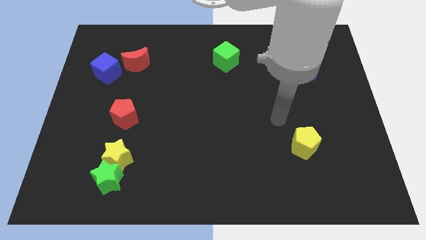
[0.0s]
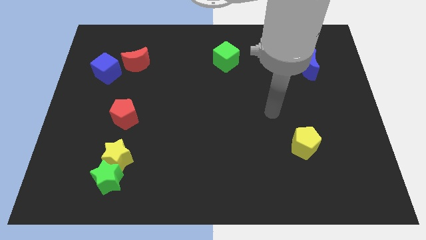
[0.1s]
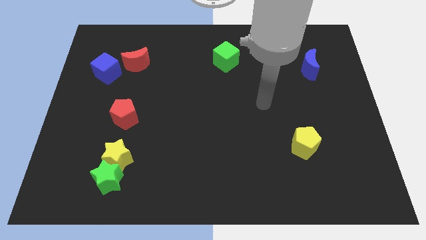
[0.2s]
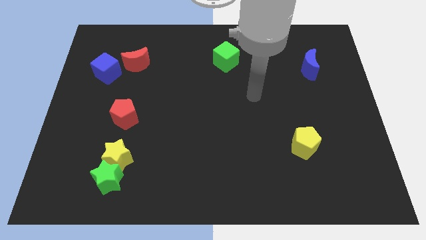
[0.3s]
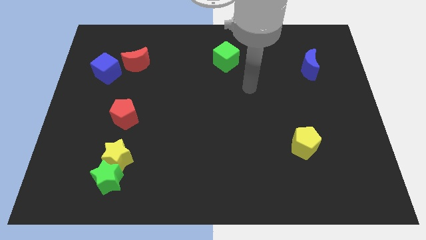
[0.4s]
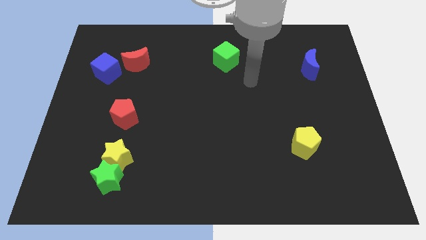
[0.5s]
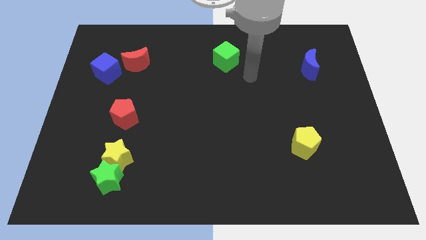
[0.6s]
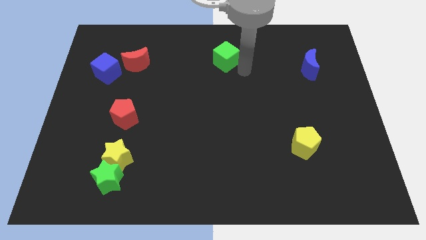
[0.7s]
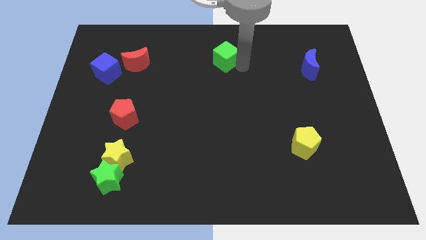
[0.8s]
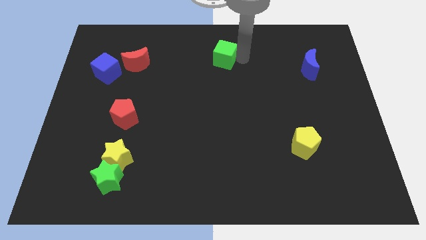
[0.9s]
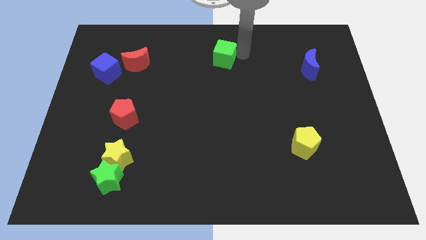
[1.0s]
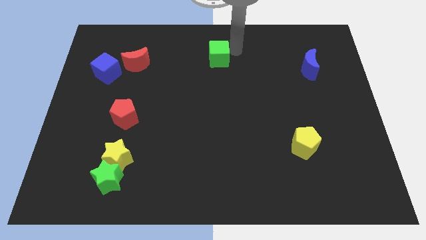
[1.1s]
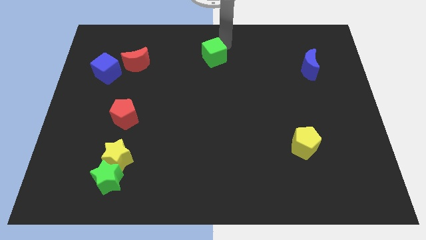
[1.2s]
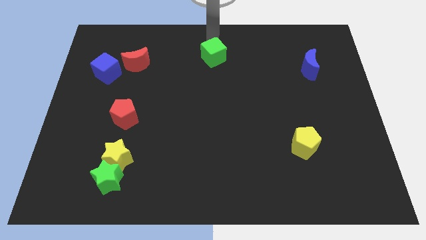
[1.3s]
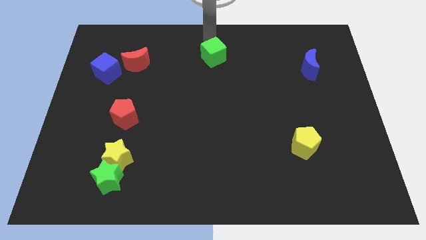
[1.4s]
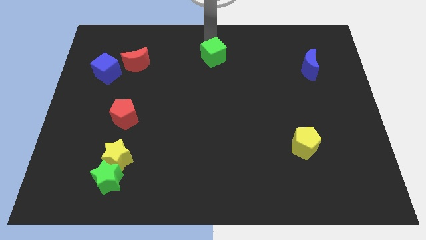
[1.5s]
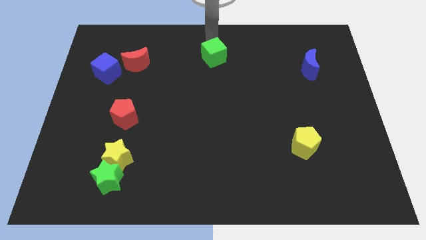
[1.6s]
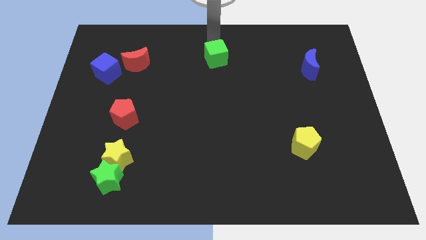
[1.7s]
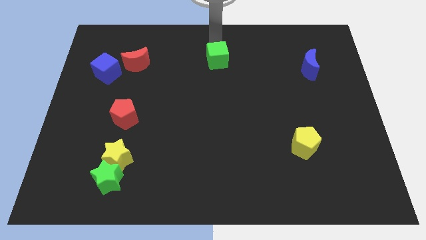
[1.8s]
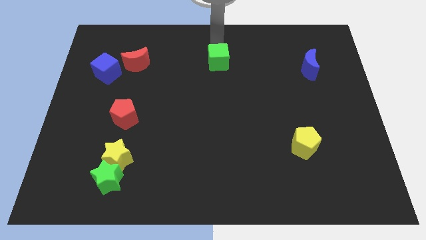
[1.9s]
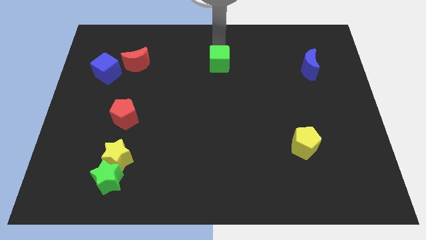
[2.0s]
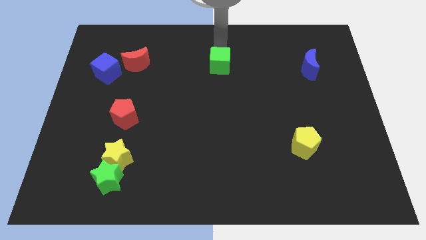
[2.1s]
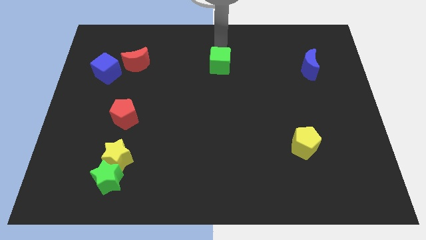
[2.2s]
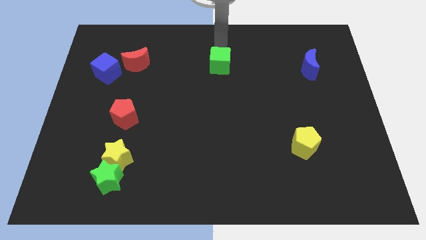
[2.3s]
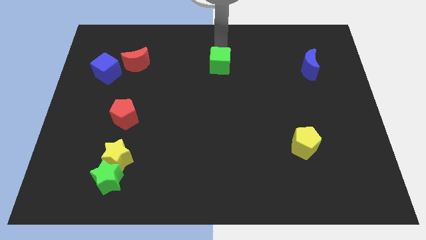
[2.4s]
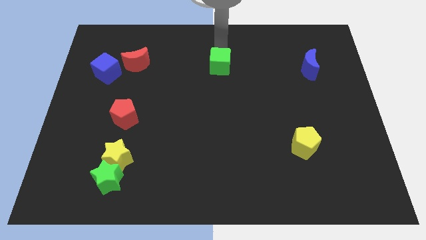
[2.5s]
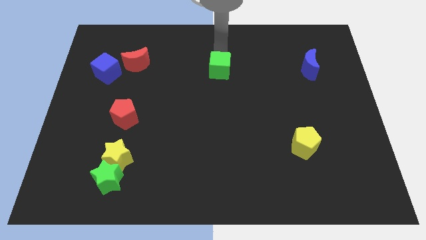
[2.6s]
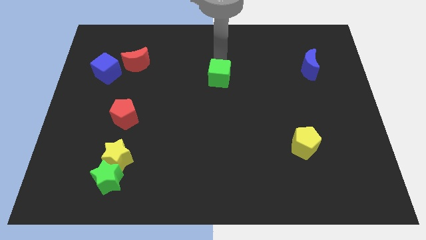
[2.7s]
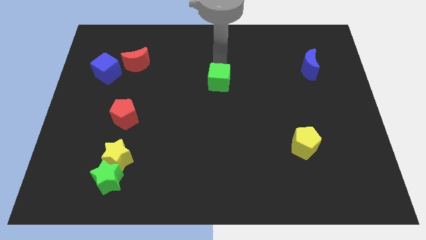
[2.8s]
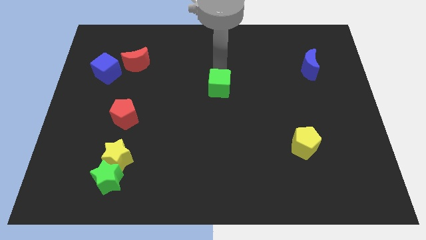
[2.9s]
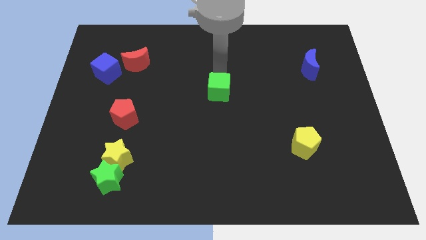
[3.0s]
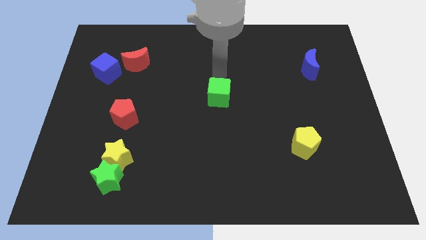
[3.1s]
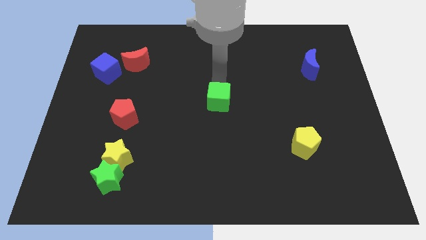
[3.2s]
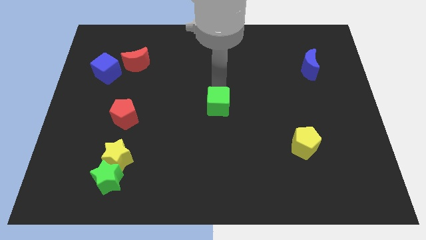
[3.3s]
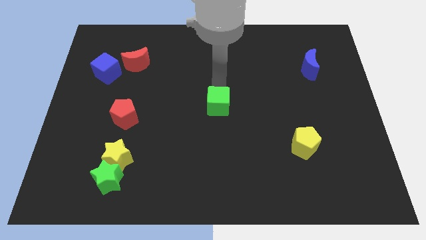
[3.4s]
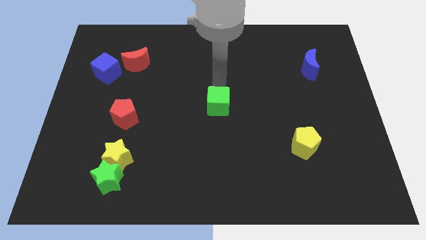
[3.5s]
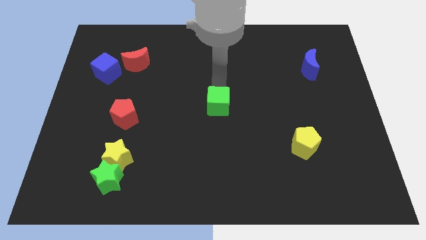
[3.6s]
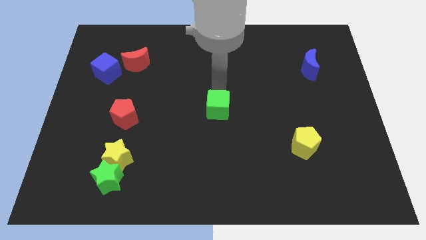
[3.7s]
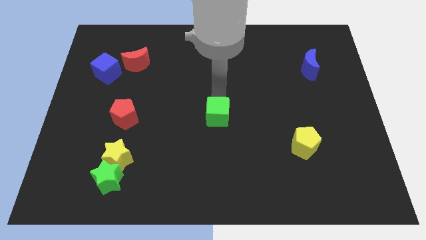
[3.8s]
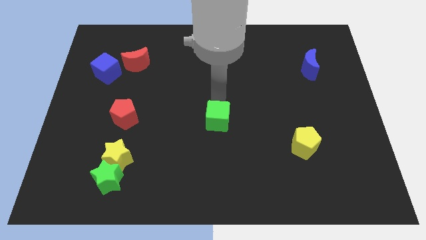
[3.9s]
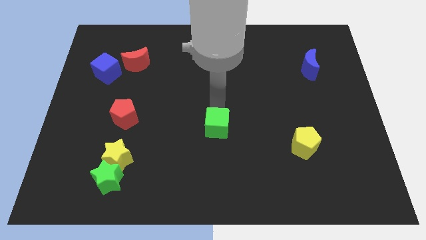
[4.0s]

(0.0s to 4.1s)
move the green cube down

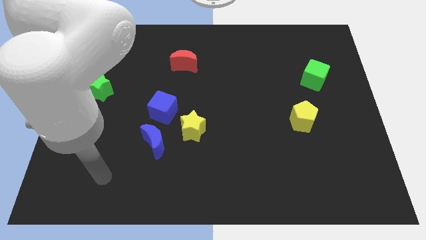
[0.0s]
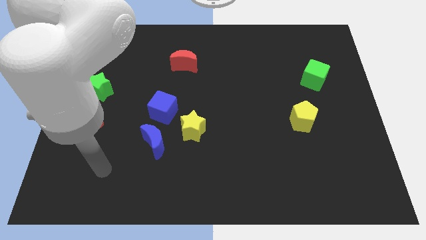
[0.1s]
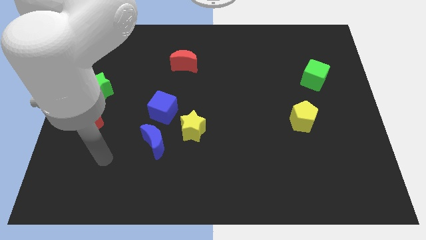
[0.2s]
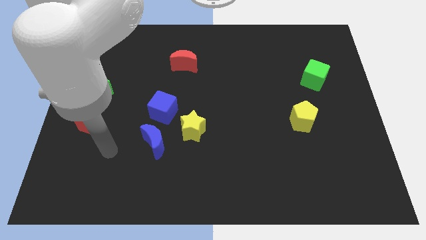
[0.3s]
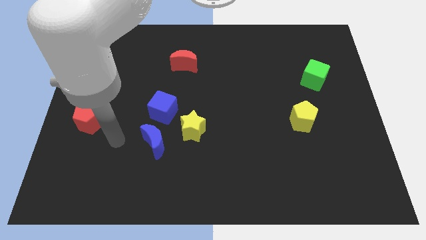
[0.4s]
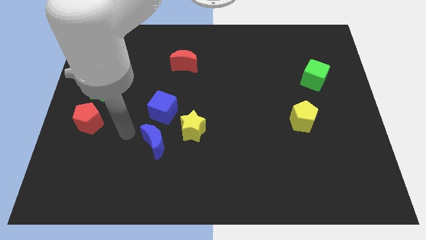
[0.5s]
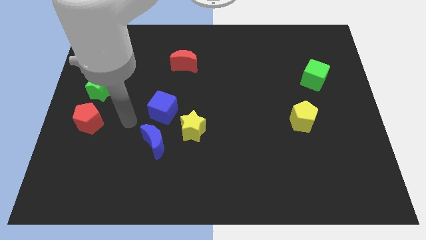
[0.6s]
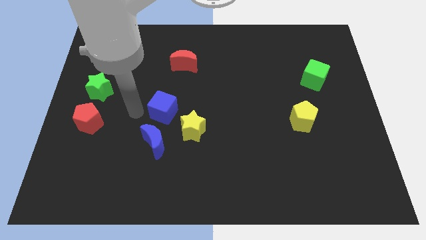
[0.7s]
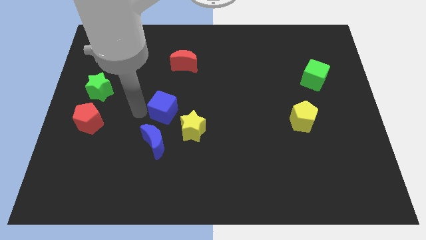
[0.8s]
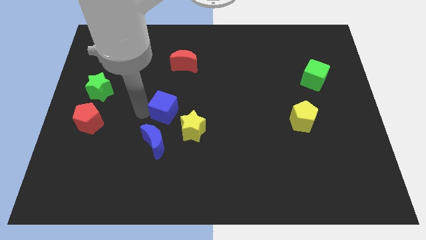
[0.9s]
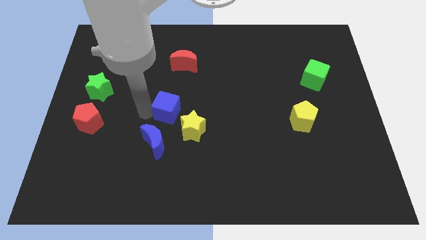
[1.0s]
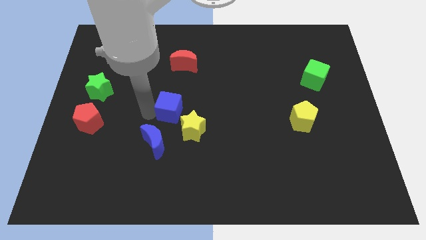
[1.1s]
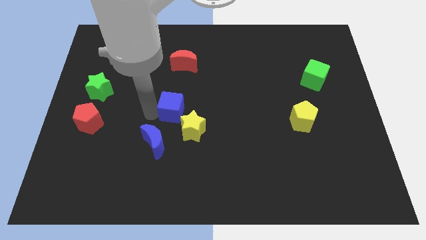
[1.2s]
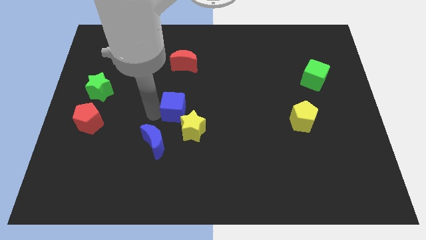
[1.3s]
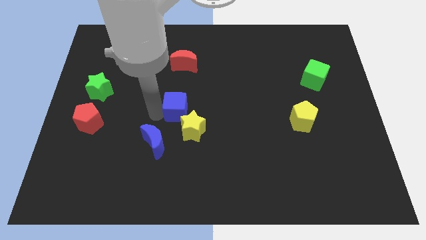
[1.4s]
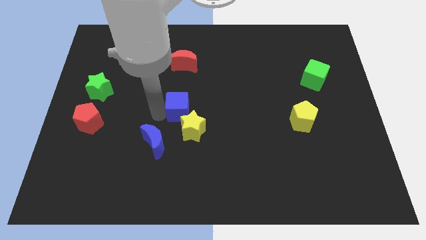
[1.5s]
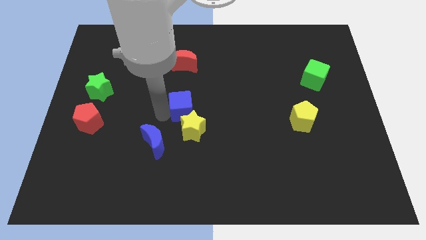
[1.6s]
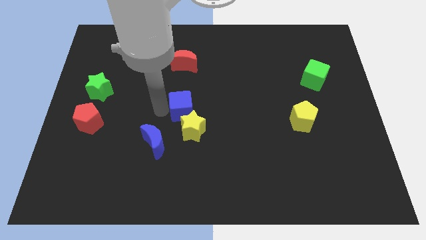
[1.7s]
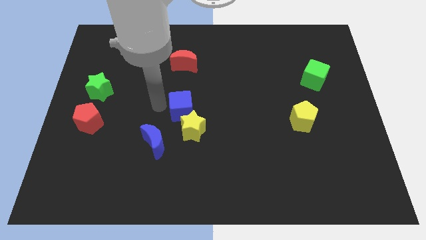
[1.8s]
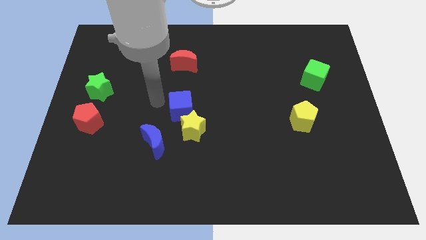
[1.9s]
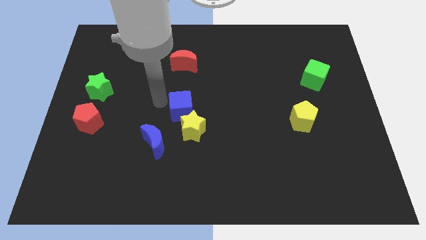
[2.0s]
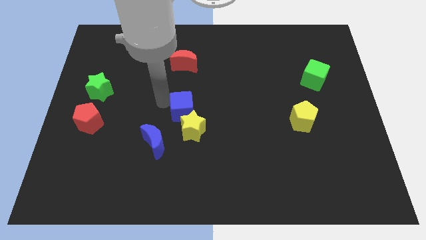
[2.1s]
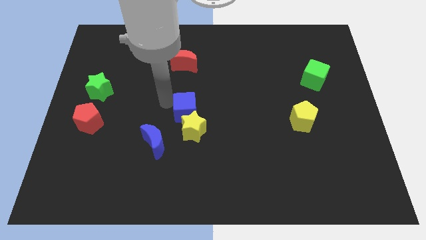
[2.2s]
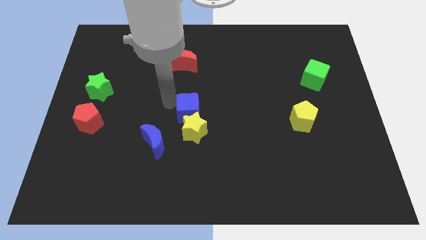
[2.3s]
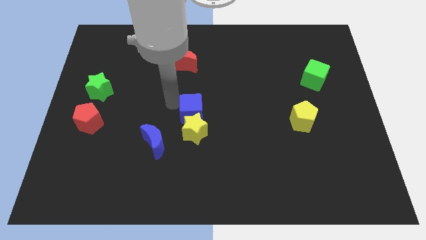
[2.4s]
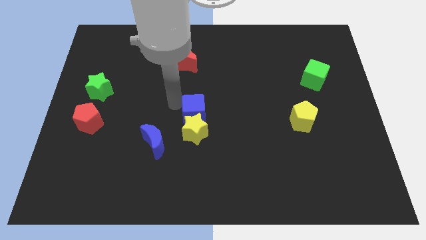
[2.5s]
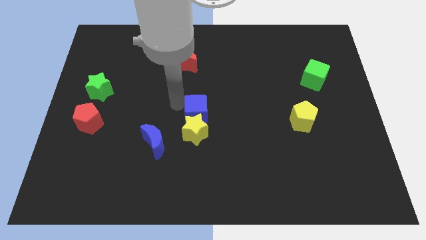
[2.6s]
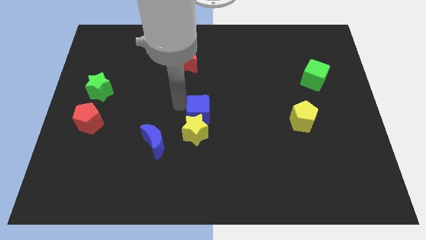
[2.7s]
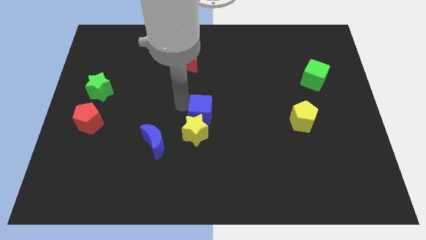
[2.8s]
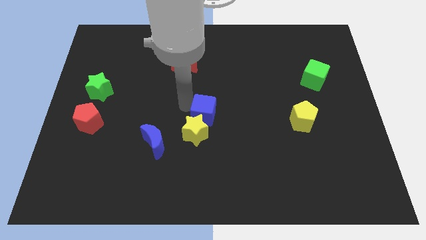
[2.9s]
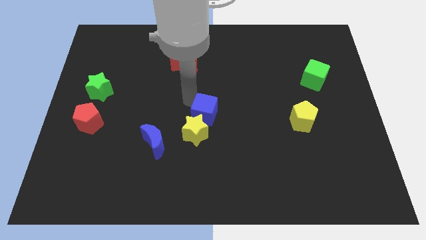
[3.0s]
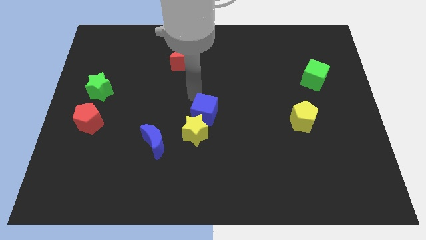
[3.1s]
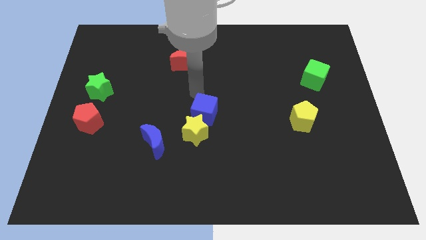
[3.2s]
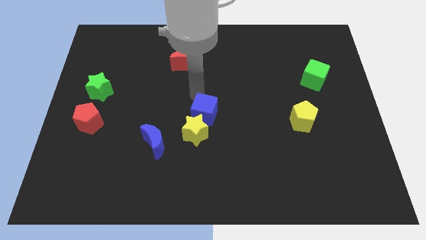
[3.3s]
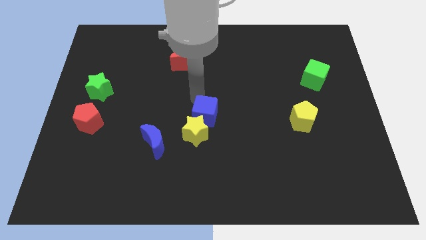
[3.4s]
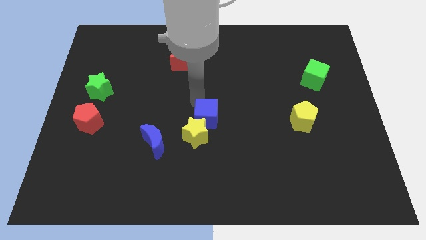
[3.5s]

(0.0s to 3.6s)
slightly move the blue cube diagonally down and to the right
